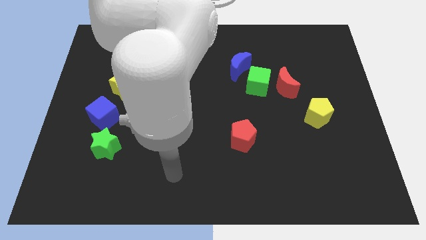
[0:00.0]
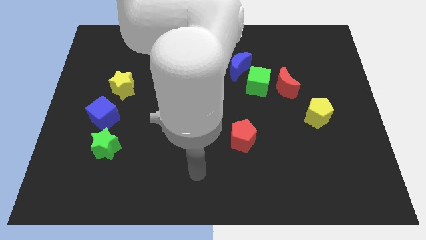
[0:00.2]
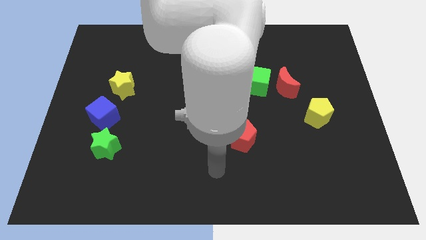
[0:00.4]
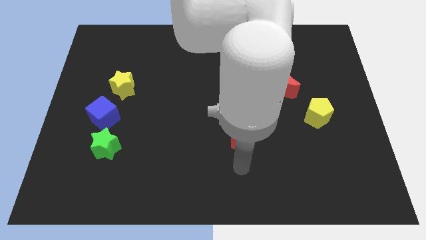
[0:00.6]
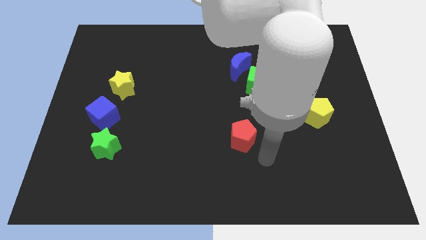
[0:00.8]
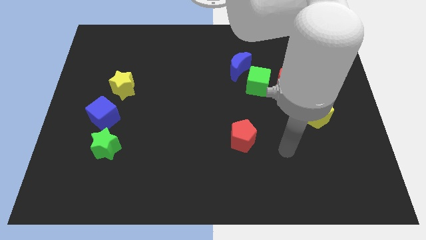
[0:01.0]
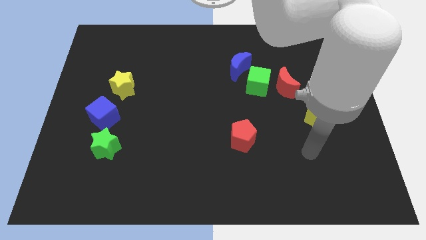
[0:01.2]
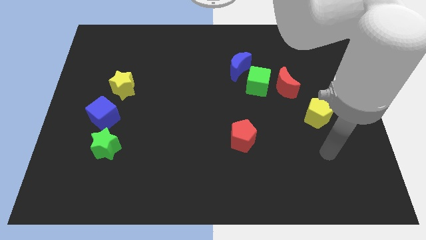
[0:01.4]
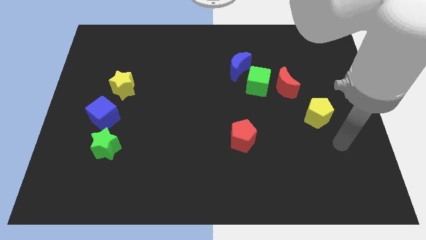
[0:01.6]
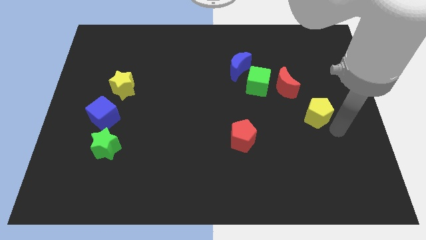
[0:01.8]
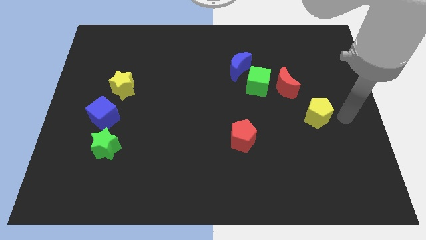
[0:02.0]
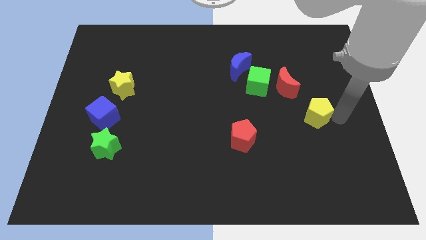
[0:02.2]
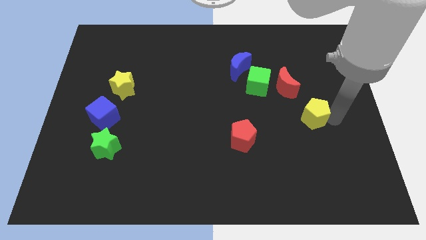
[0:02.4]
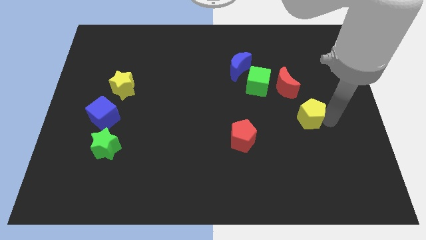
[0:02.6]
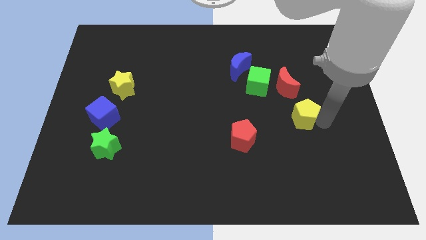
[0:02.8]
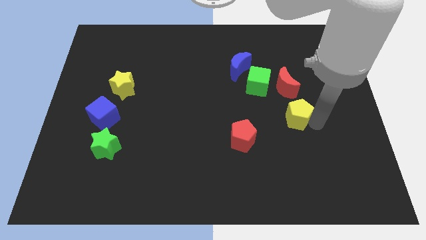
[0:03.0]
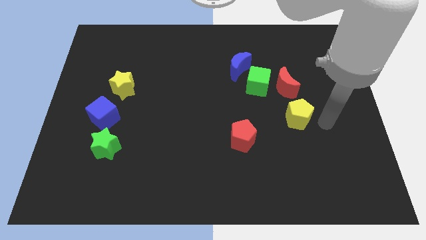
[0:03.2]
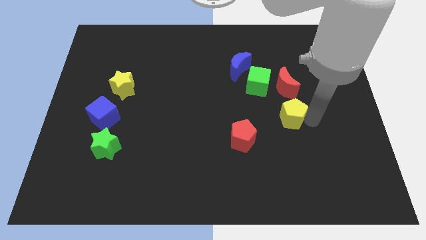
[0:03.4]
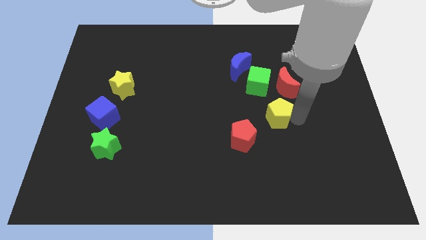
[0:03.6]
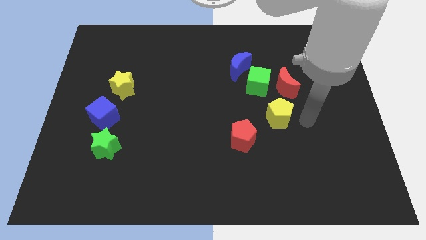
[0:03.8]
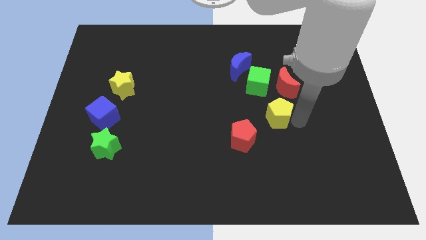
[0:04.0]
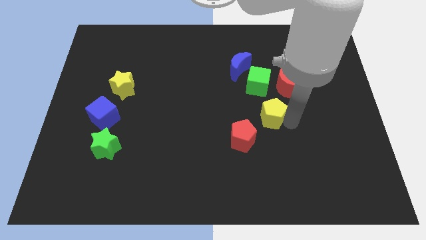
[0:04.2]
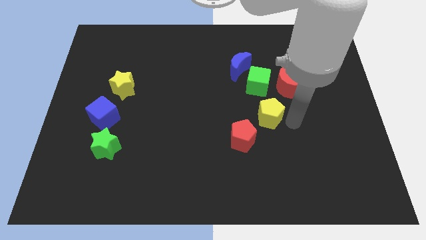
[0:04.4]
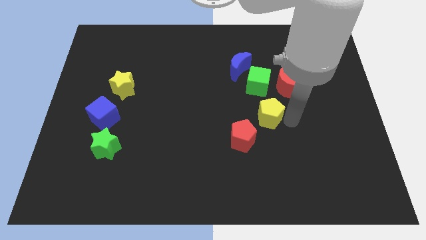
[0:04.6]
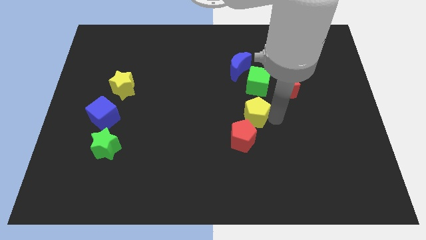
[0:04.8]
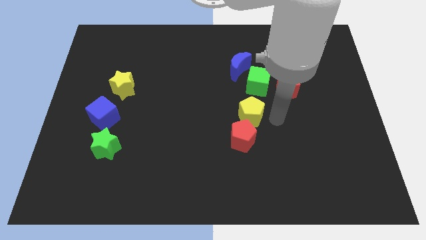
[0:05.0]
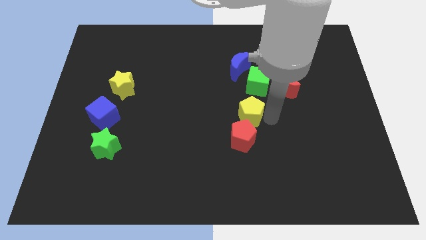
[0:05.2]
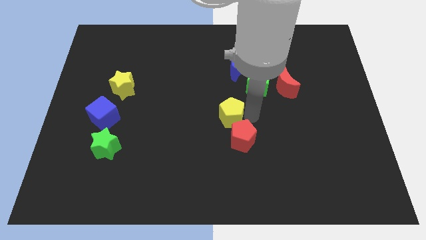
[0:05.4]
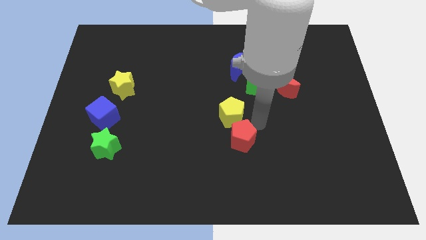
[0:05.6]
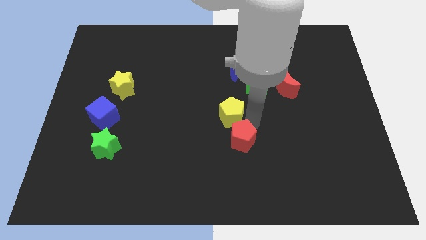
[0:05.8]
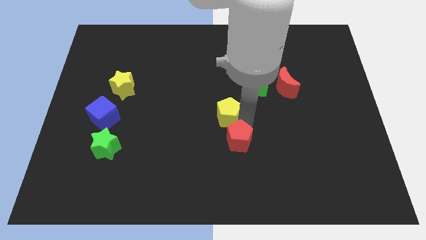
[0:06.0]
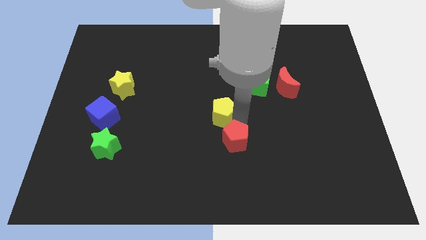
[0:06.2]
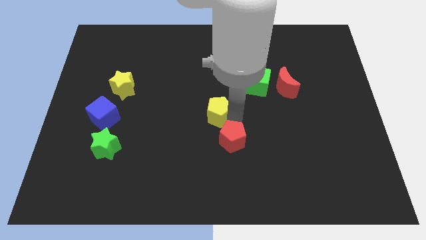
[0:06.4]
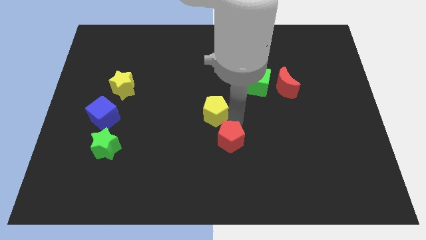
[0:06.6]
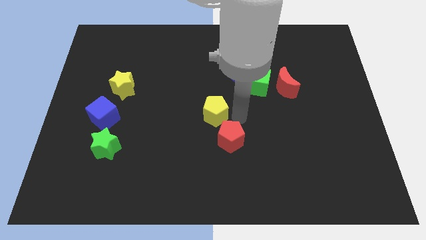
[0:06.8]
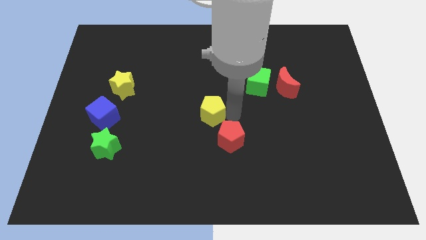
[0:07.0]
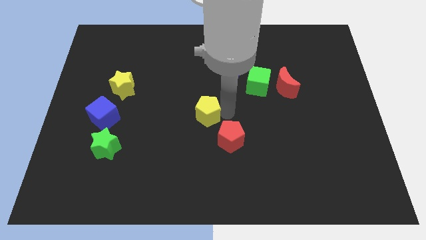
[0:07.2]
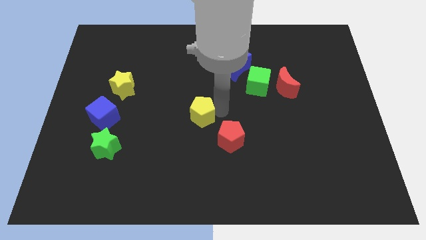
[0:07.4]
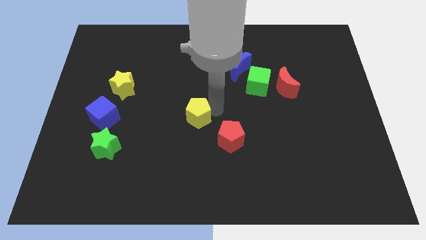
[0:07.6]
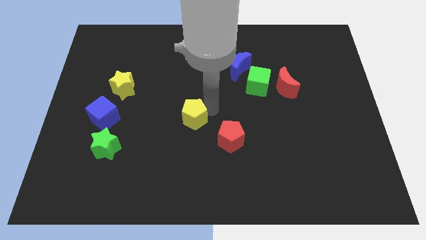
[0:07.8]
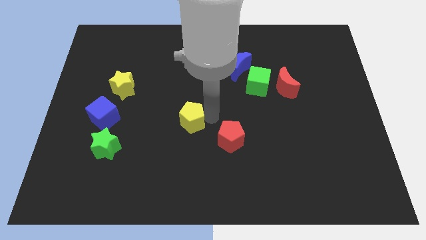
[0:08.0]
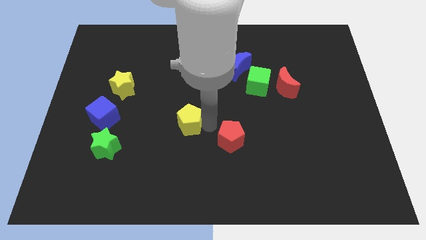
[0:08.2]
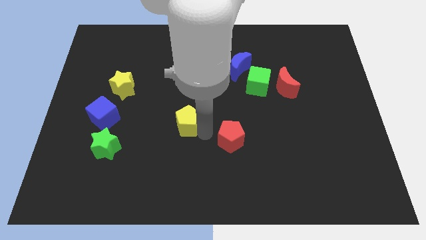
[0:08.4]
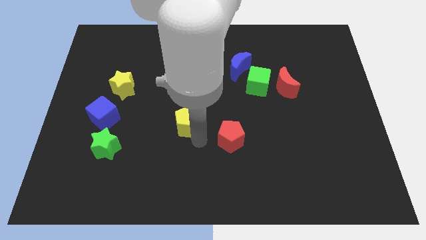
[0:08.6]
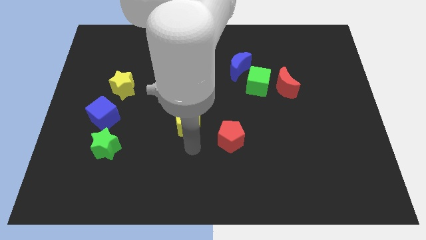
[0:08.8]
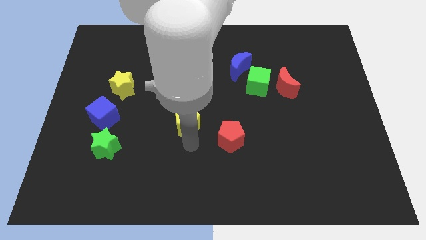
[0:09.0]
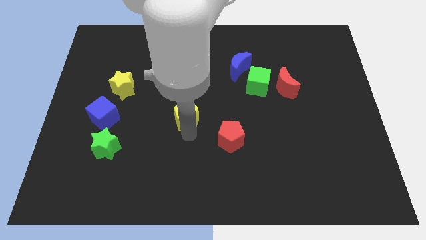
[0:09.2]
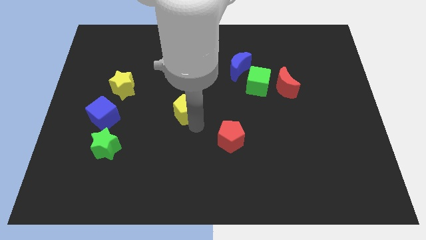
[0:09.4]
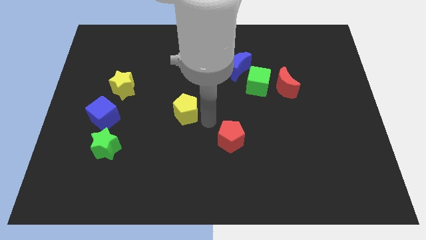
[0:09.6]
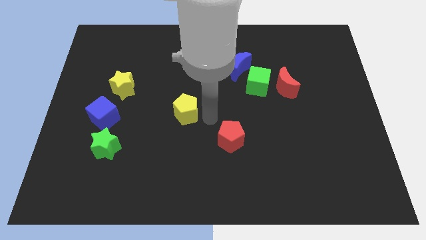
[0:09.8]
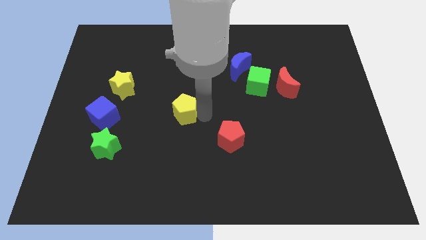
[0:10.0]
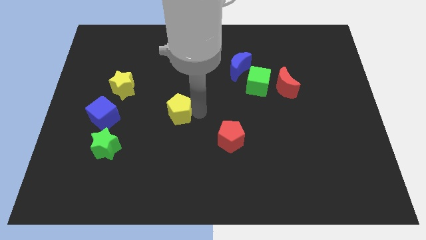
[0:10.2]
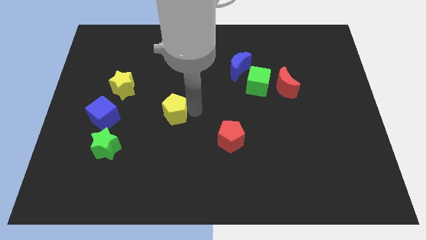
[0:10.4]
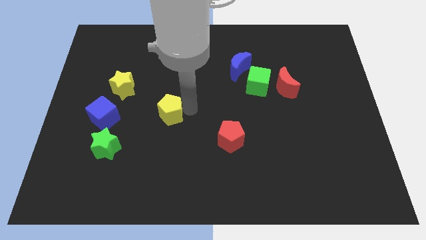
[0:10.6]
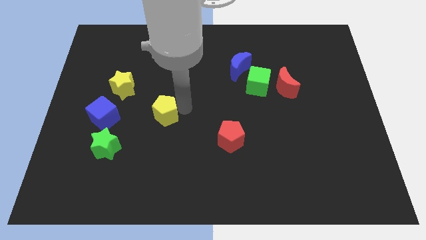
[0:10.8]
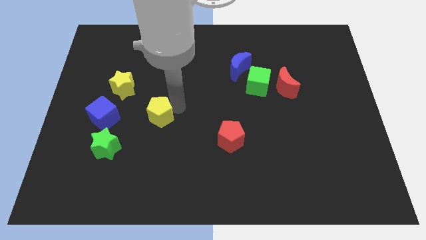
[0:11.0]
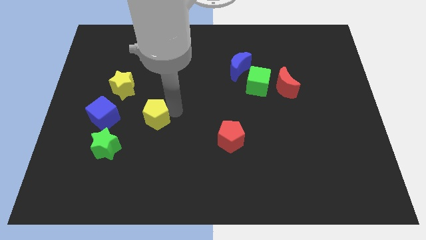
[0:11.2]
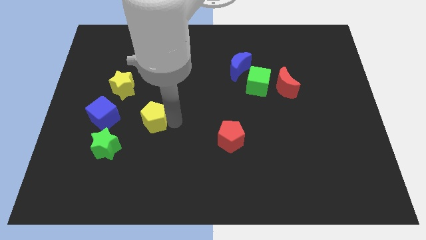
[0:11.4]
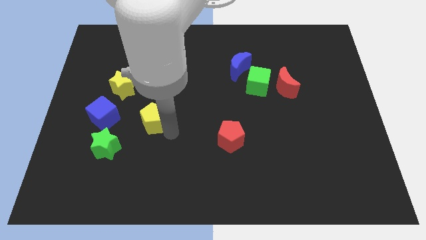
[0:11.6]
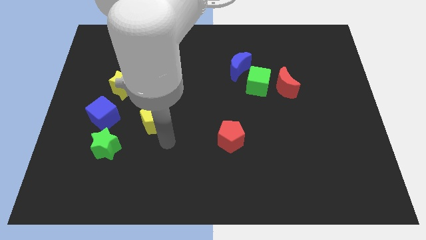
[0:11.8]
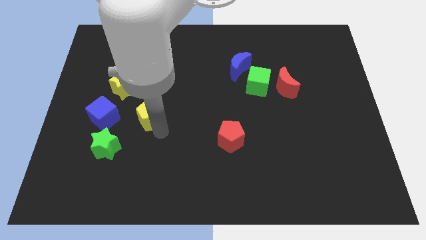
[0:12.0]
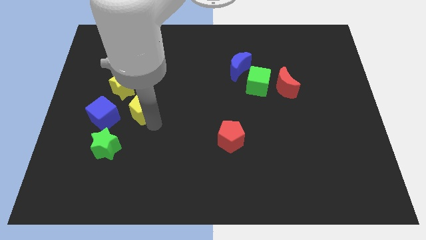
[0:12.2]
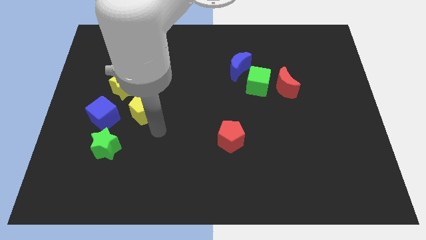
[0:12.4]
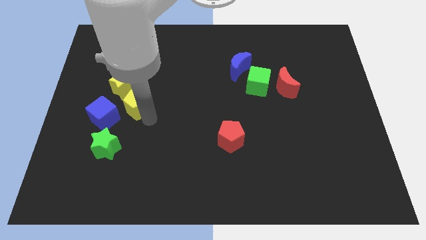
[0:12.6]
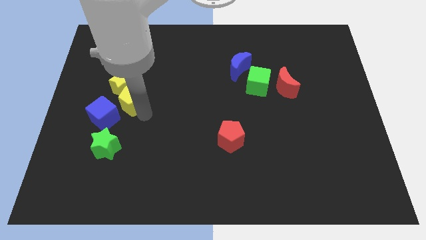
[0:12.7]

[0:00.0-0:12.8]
push the yellow pentagon close to the yellow star
